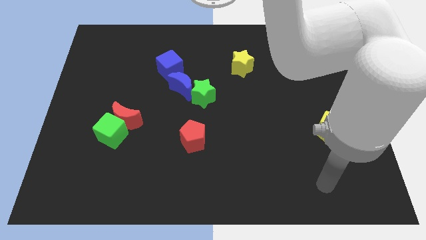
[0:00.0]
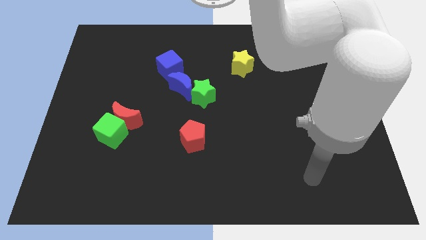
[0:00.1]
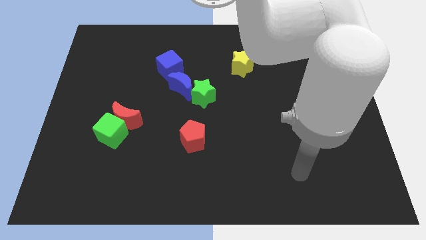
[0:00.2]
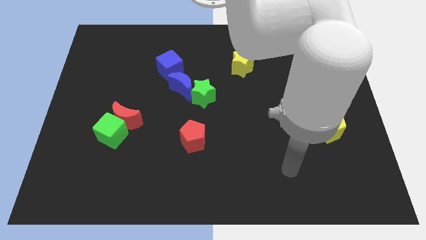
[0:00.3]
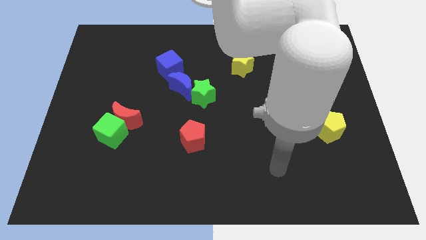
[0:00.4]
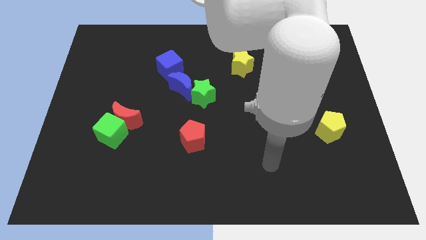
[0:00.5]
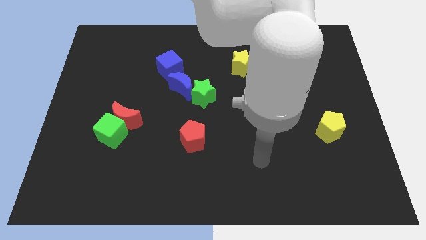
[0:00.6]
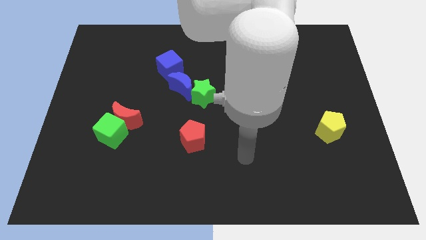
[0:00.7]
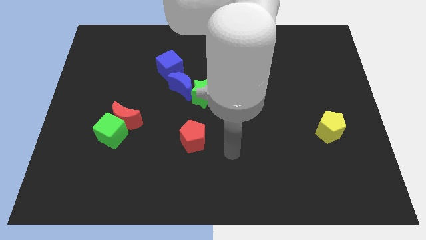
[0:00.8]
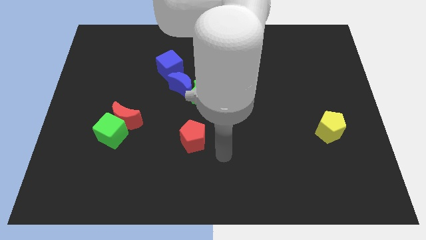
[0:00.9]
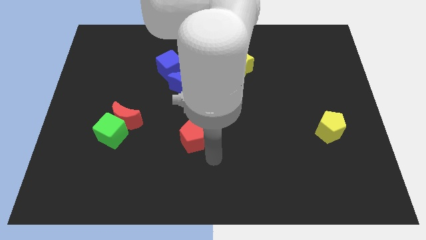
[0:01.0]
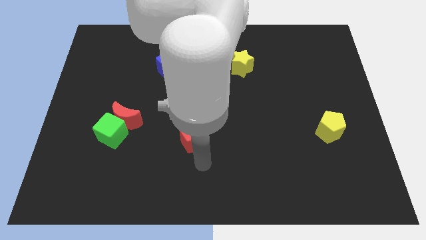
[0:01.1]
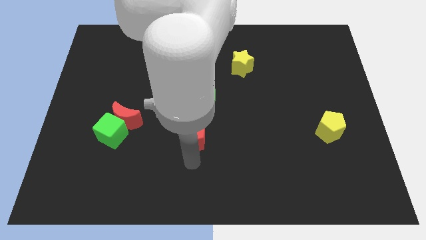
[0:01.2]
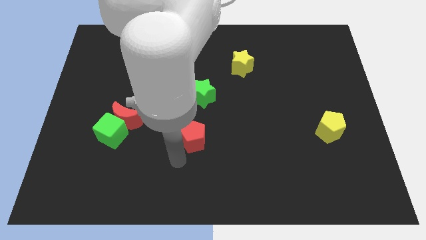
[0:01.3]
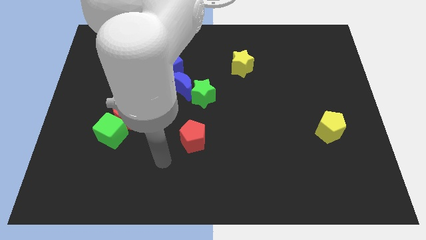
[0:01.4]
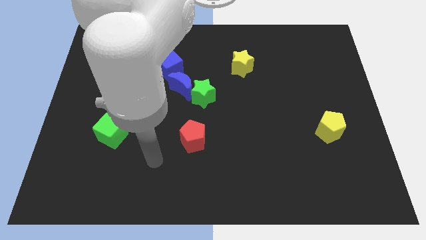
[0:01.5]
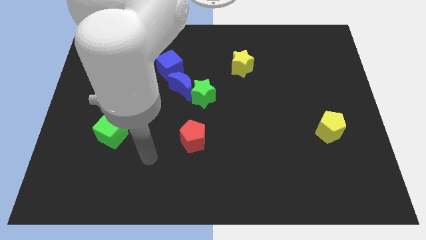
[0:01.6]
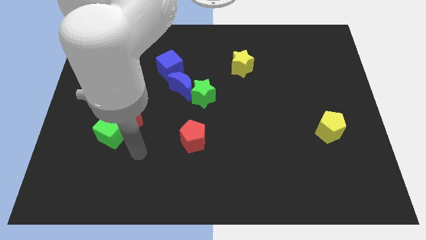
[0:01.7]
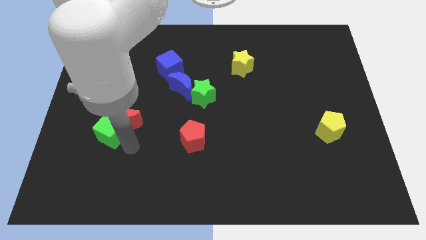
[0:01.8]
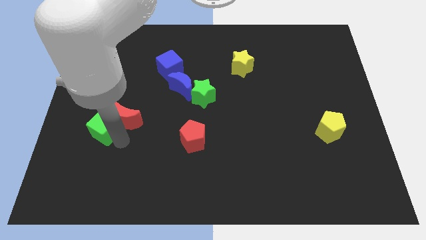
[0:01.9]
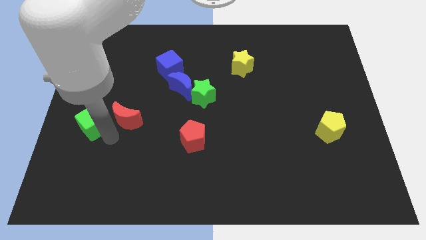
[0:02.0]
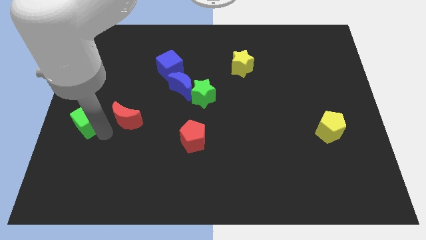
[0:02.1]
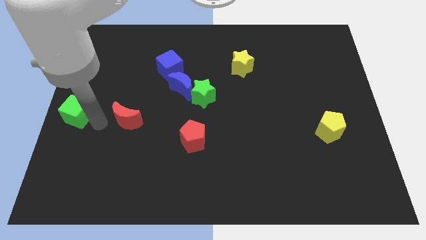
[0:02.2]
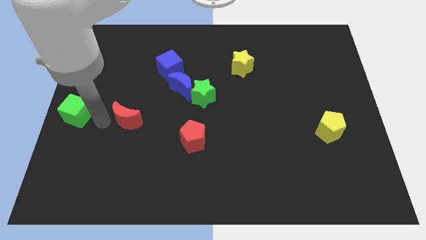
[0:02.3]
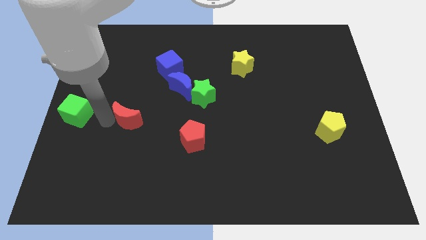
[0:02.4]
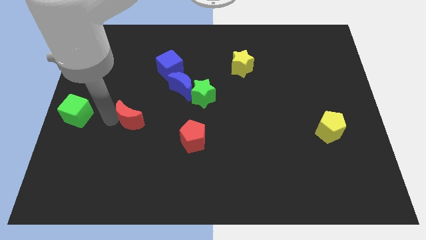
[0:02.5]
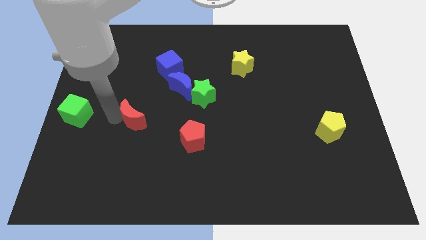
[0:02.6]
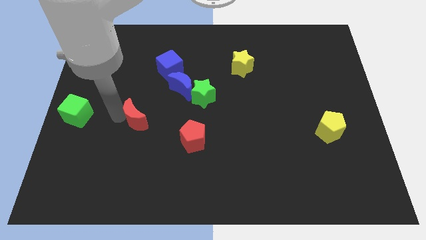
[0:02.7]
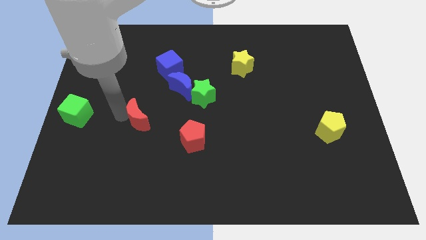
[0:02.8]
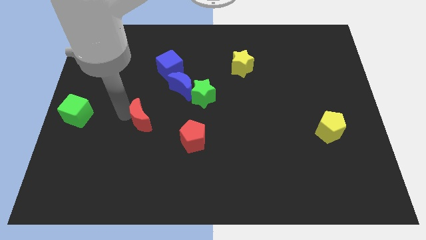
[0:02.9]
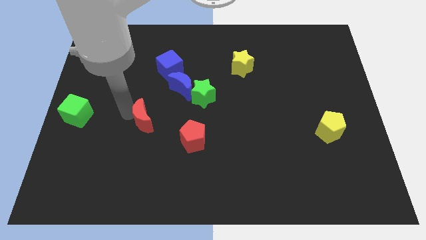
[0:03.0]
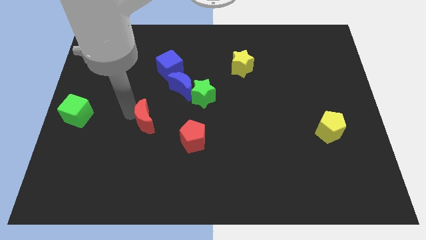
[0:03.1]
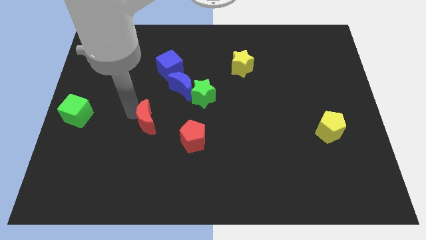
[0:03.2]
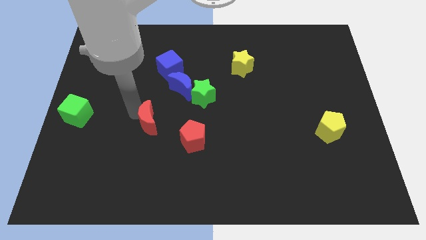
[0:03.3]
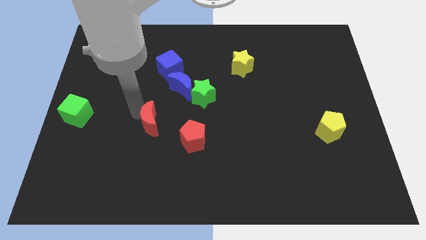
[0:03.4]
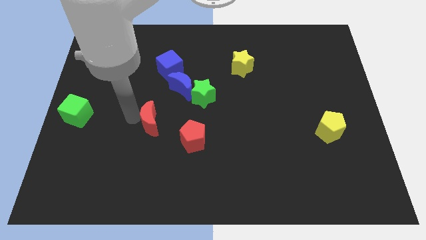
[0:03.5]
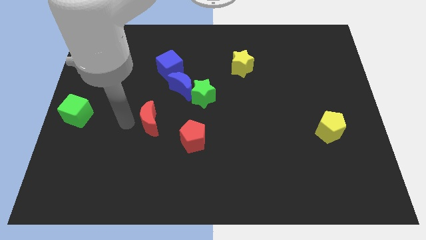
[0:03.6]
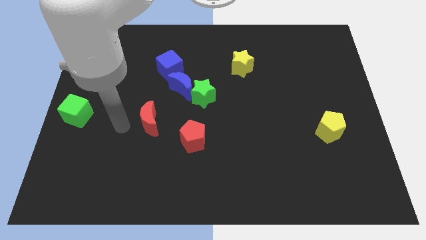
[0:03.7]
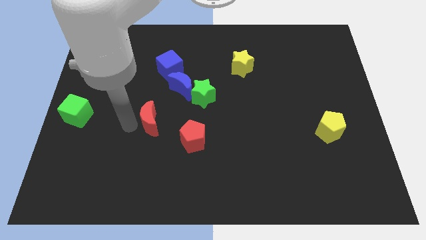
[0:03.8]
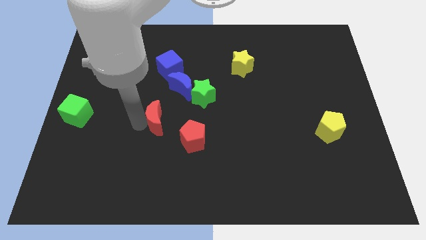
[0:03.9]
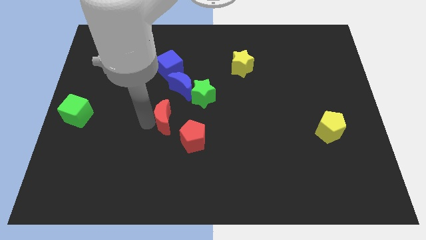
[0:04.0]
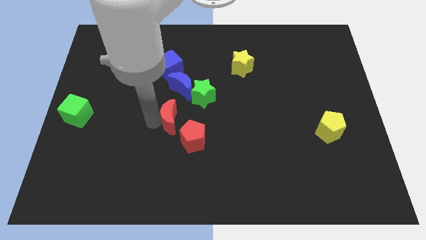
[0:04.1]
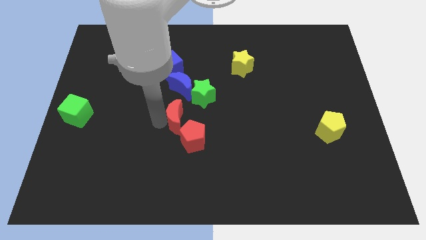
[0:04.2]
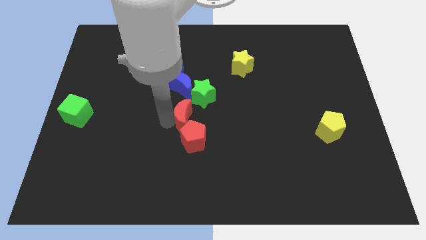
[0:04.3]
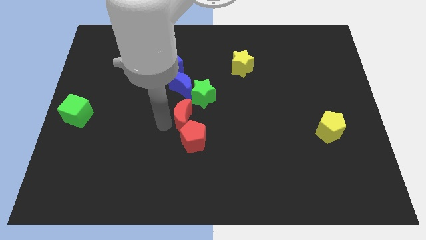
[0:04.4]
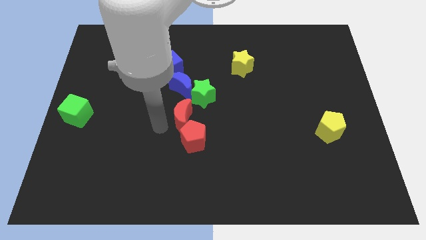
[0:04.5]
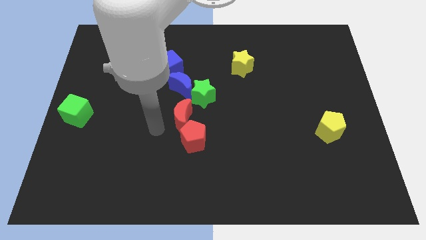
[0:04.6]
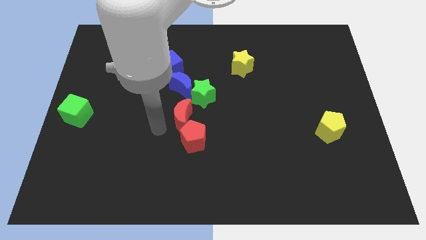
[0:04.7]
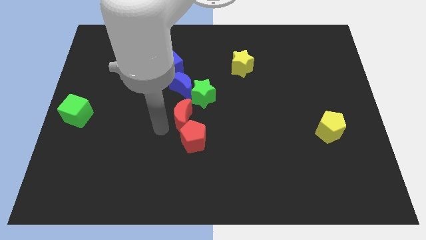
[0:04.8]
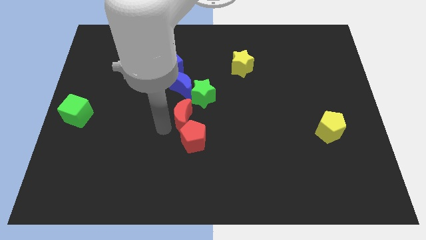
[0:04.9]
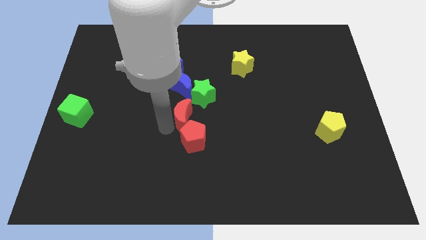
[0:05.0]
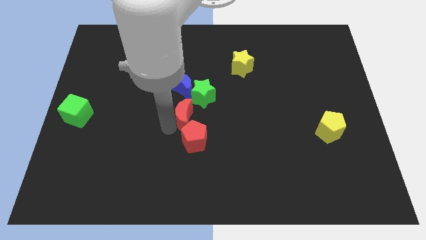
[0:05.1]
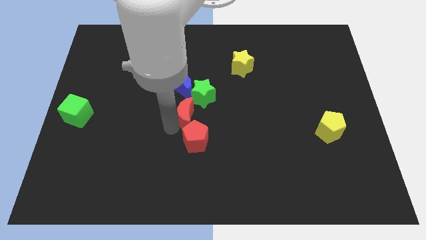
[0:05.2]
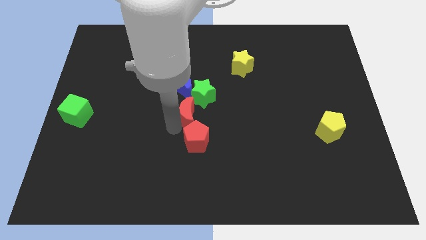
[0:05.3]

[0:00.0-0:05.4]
slightly move the red moon up and to the right diagonally

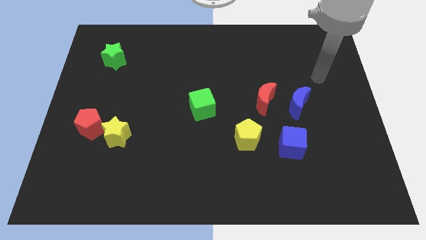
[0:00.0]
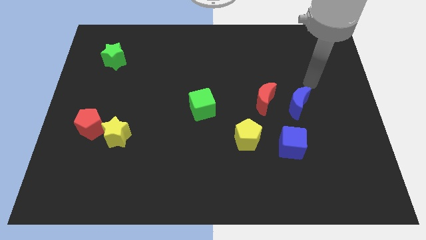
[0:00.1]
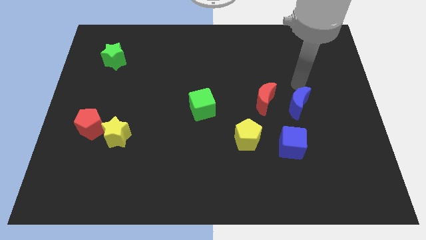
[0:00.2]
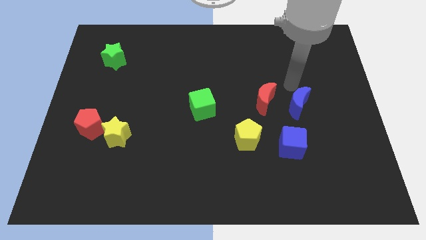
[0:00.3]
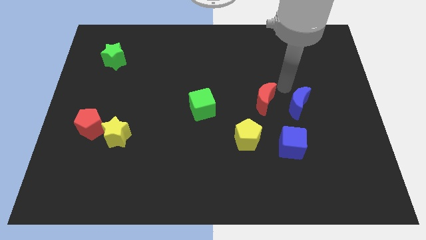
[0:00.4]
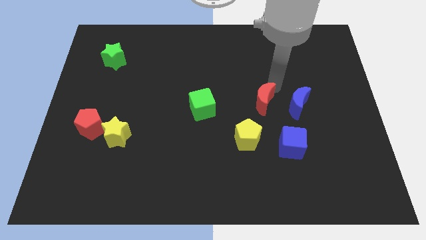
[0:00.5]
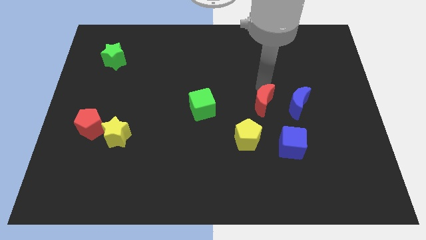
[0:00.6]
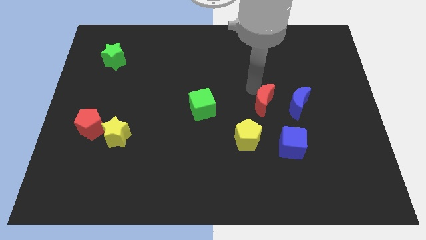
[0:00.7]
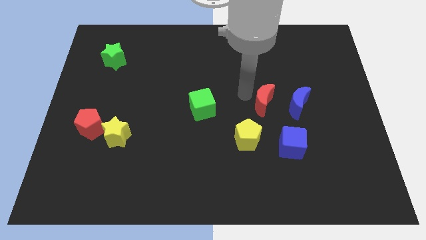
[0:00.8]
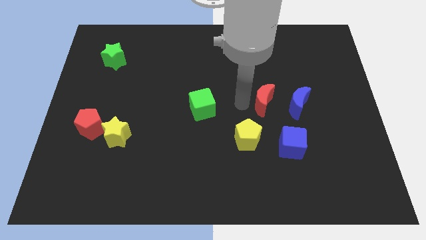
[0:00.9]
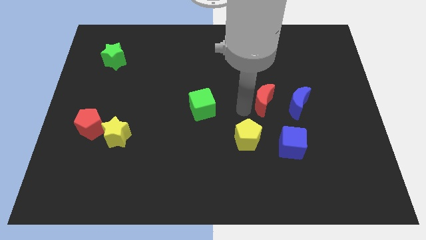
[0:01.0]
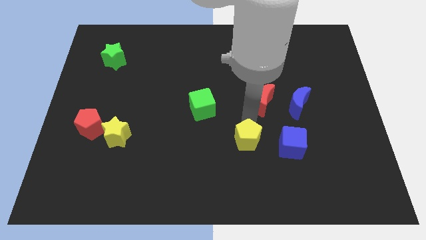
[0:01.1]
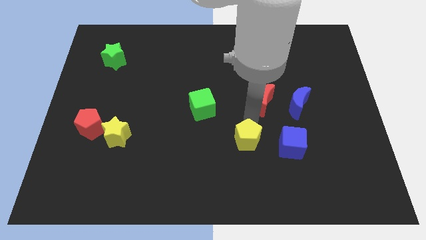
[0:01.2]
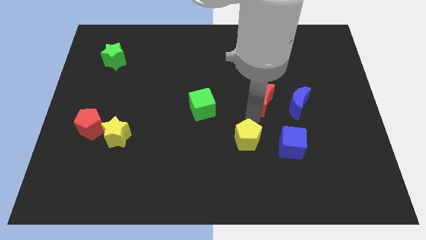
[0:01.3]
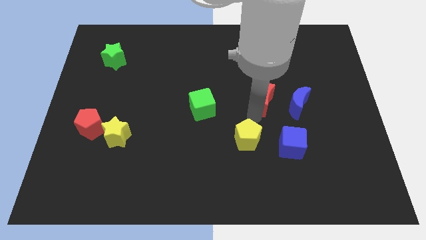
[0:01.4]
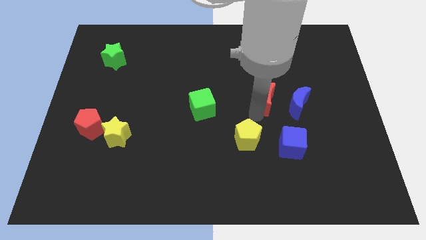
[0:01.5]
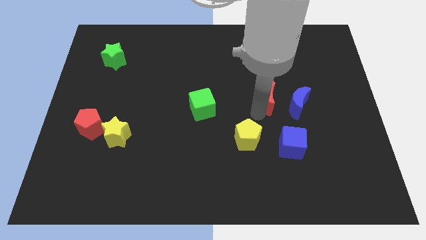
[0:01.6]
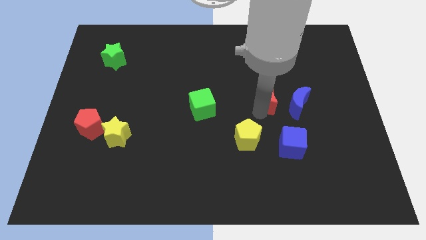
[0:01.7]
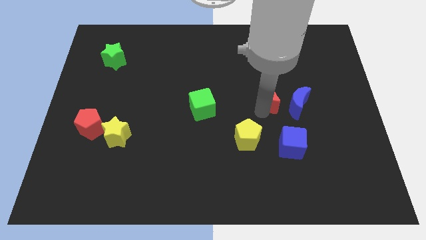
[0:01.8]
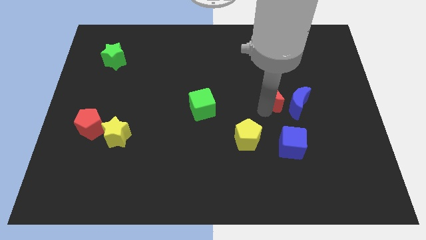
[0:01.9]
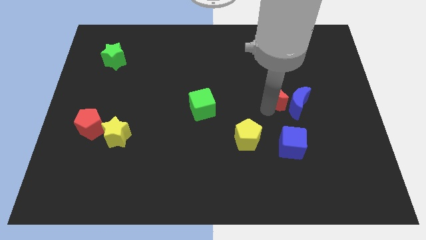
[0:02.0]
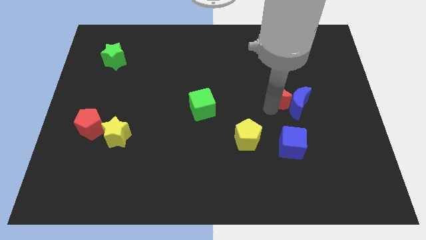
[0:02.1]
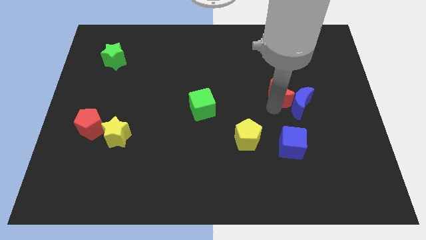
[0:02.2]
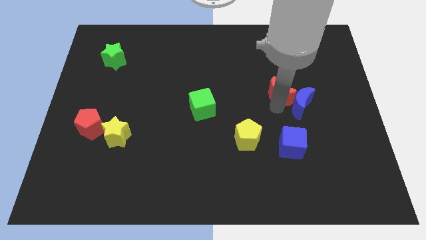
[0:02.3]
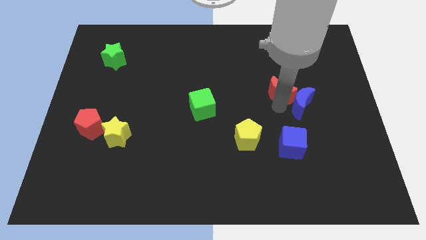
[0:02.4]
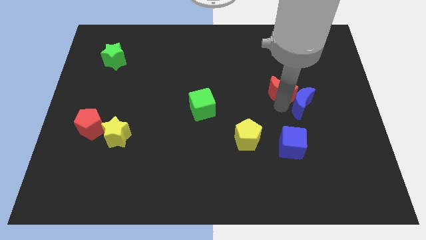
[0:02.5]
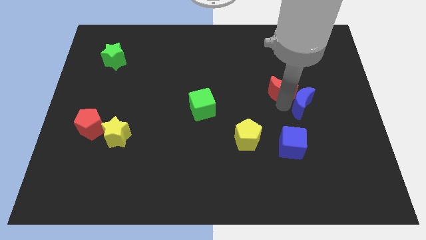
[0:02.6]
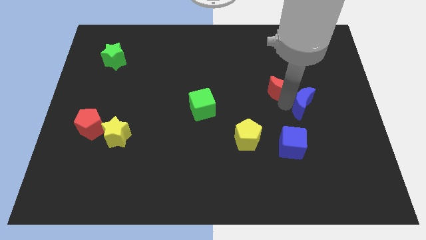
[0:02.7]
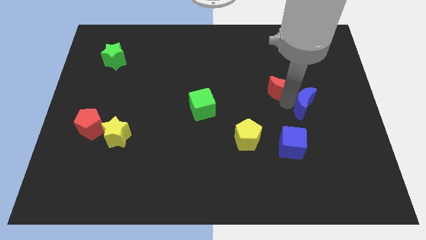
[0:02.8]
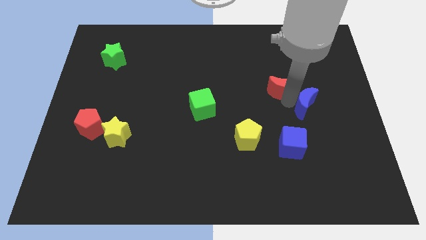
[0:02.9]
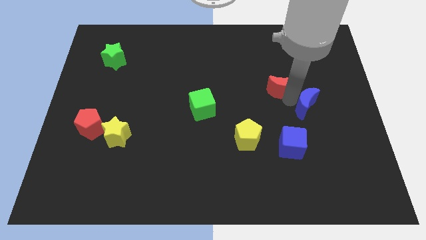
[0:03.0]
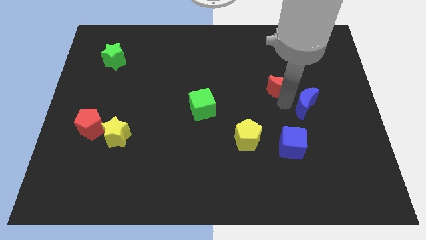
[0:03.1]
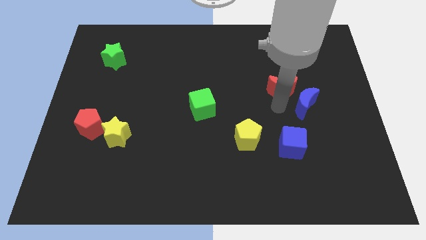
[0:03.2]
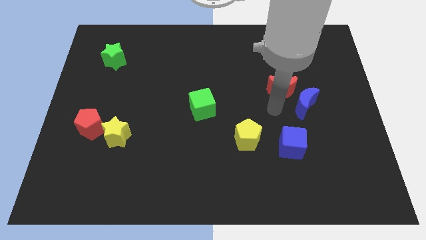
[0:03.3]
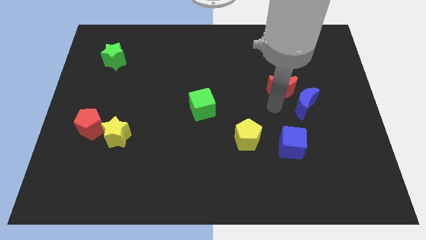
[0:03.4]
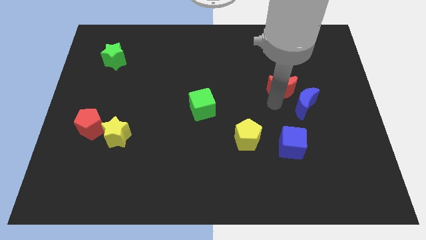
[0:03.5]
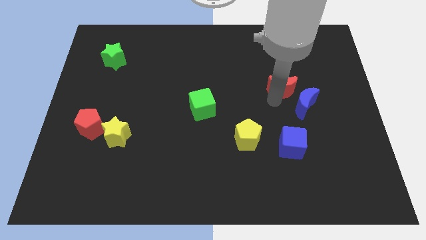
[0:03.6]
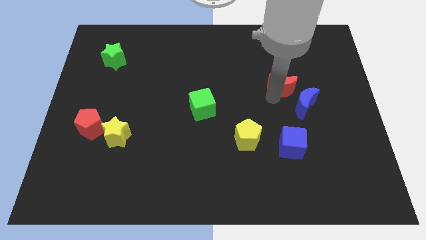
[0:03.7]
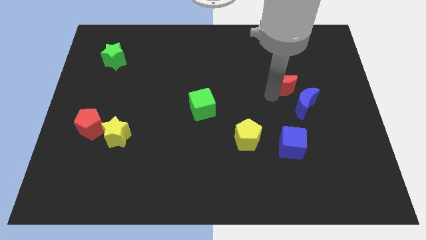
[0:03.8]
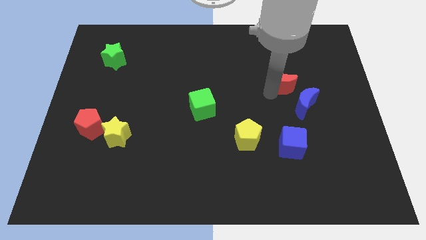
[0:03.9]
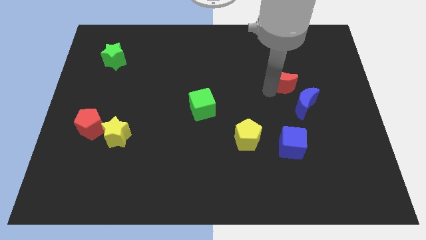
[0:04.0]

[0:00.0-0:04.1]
push the red moon upwards and then right a bit
